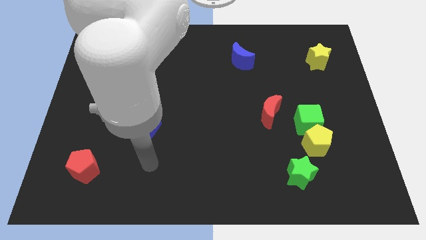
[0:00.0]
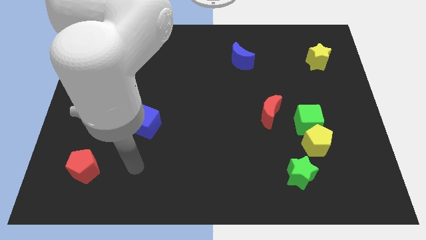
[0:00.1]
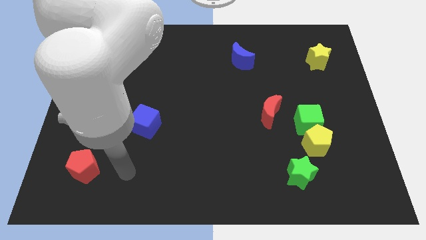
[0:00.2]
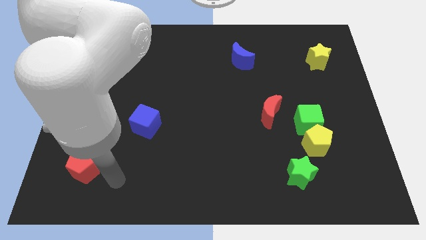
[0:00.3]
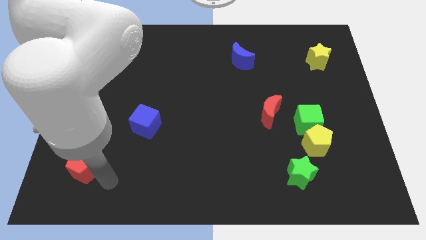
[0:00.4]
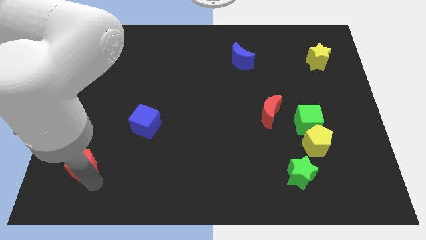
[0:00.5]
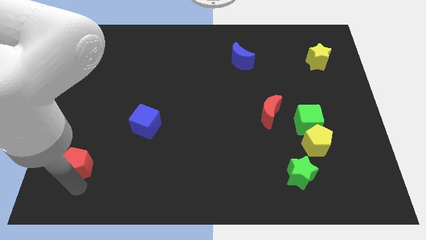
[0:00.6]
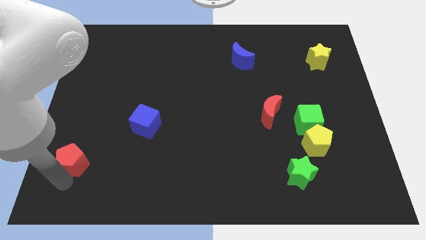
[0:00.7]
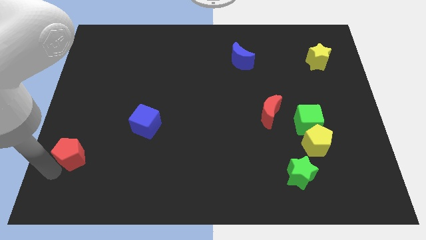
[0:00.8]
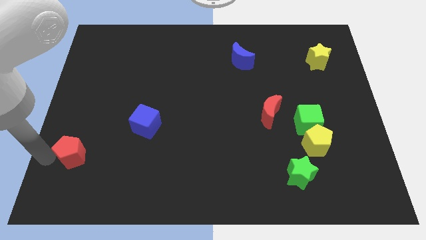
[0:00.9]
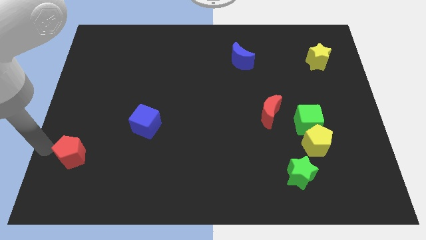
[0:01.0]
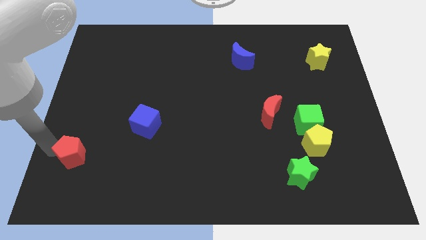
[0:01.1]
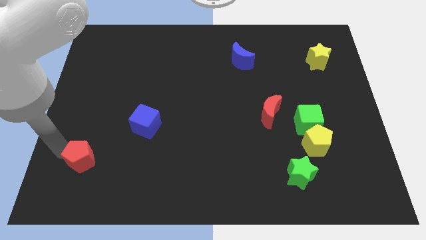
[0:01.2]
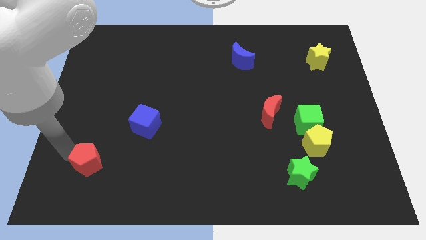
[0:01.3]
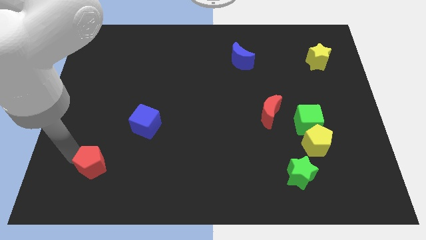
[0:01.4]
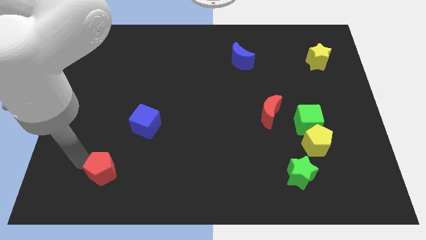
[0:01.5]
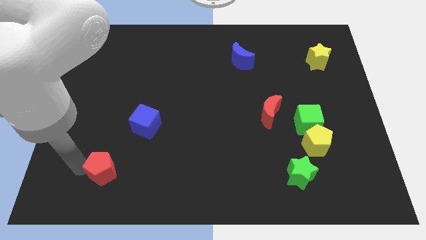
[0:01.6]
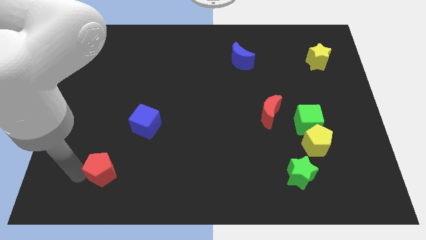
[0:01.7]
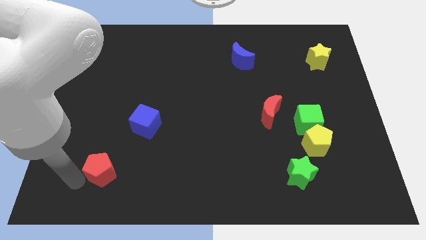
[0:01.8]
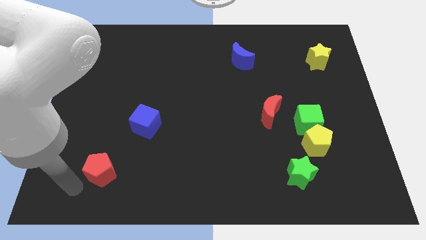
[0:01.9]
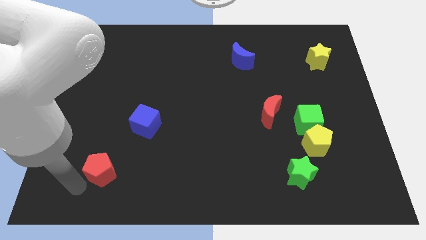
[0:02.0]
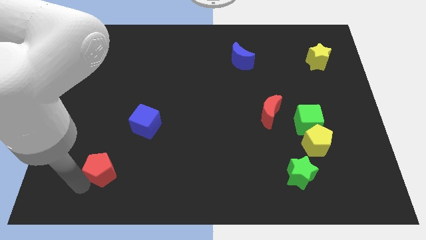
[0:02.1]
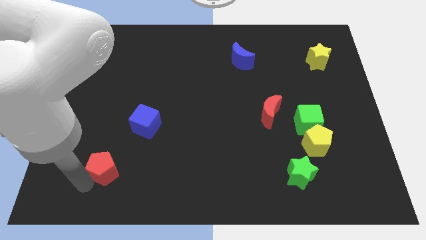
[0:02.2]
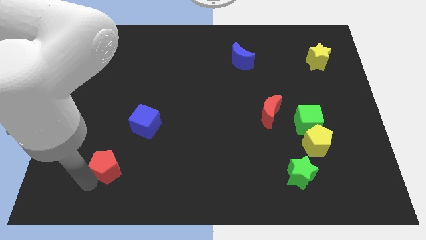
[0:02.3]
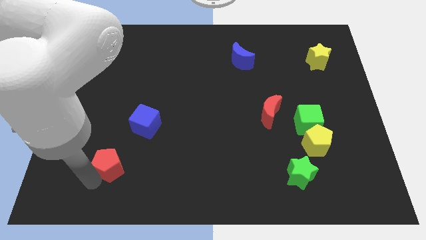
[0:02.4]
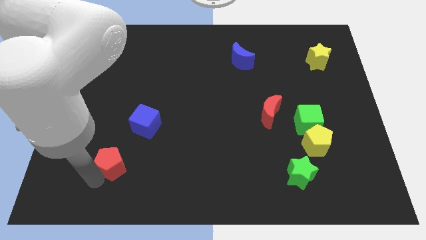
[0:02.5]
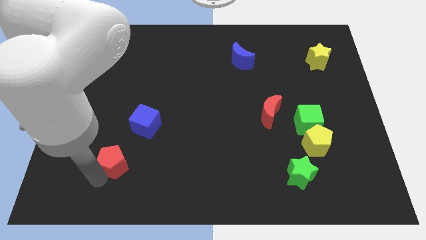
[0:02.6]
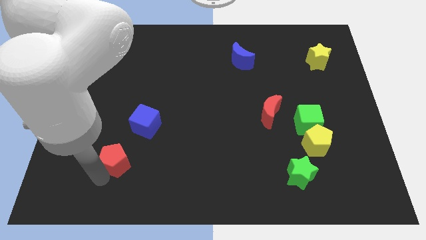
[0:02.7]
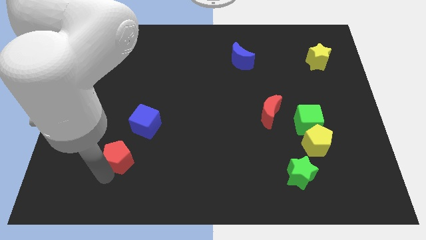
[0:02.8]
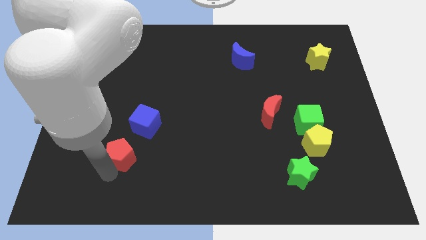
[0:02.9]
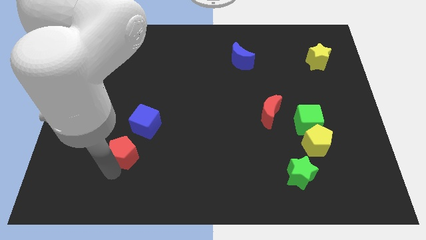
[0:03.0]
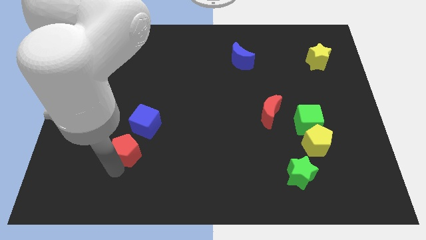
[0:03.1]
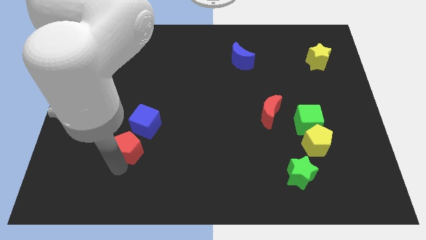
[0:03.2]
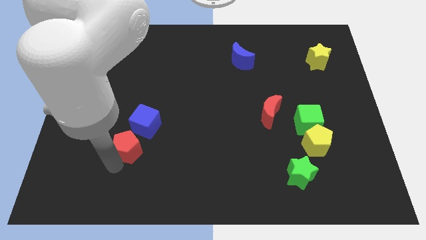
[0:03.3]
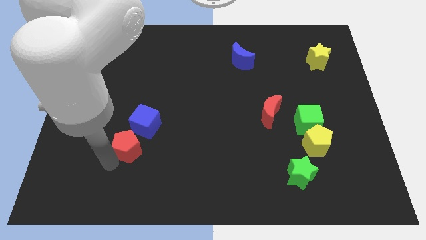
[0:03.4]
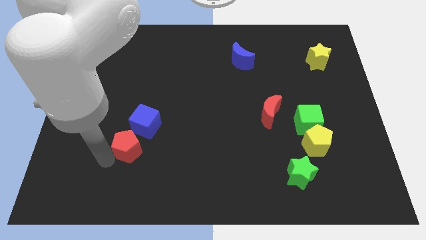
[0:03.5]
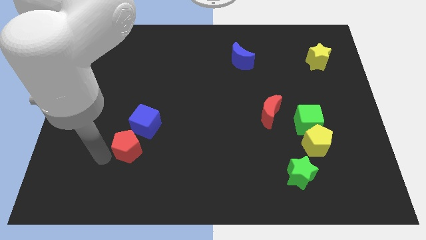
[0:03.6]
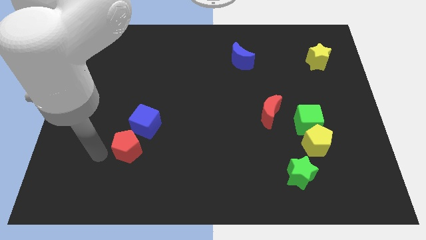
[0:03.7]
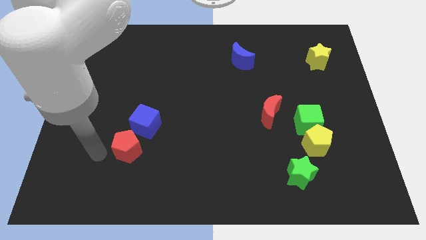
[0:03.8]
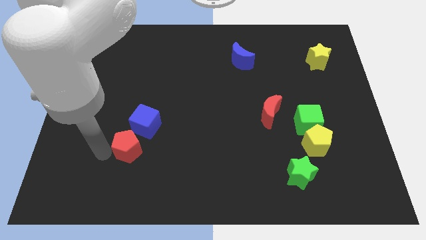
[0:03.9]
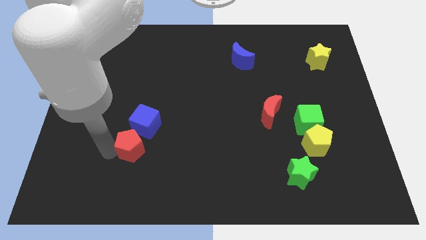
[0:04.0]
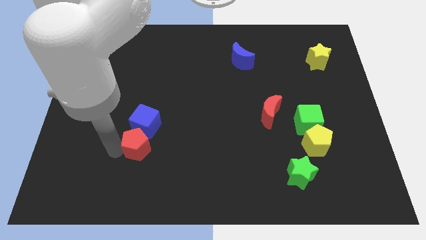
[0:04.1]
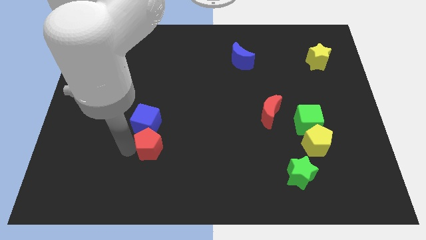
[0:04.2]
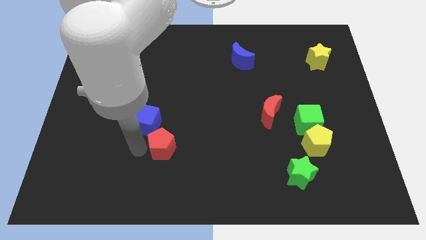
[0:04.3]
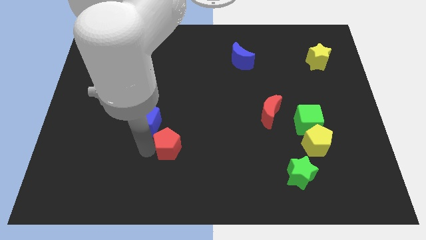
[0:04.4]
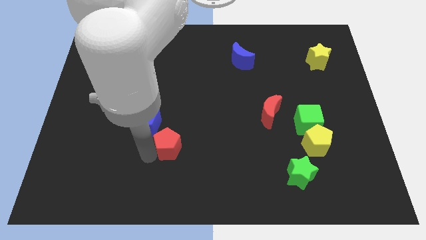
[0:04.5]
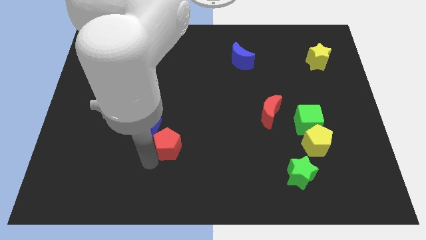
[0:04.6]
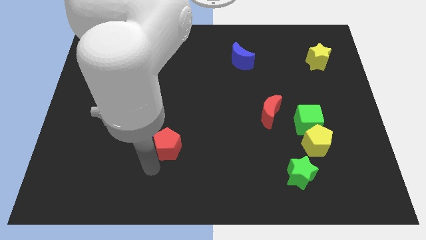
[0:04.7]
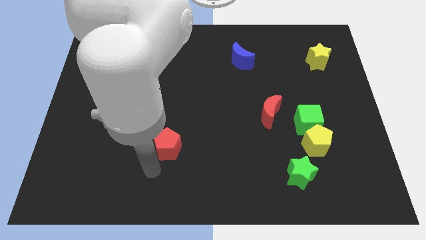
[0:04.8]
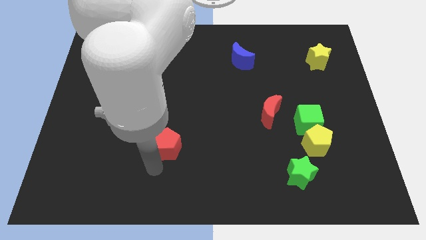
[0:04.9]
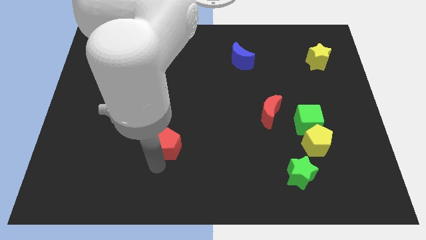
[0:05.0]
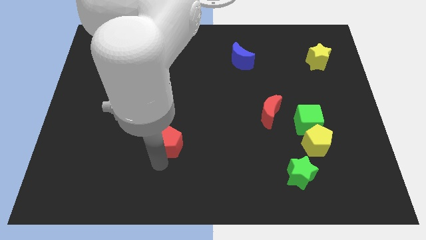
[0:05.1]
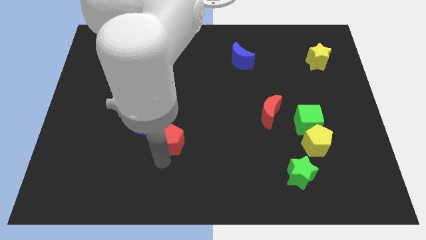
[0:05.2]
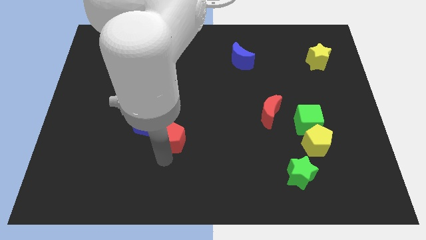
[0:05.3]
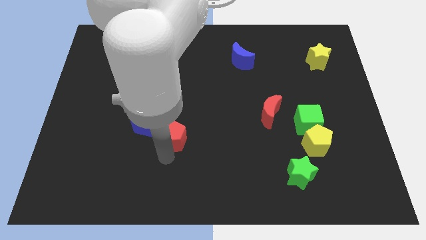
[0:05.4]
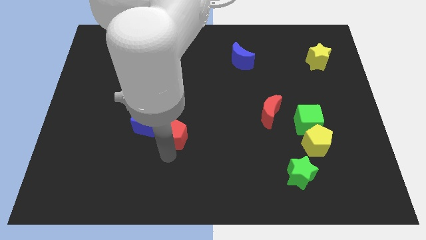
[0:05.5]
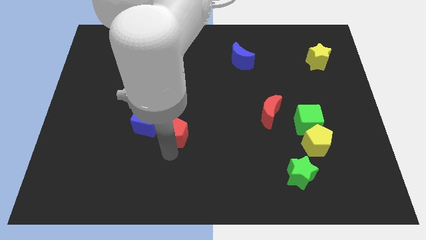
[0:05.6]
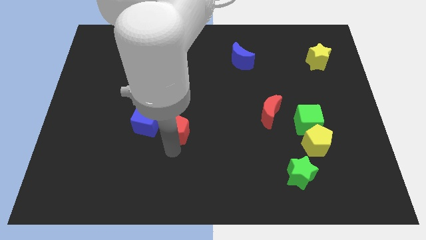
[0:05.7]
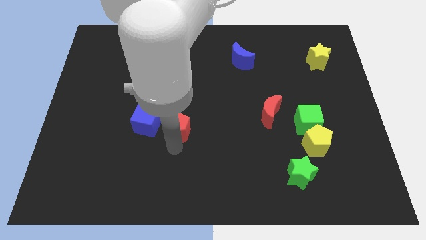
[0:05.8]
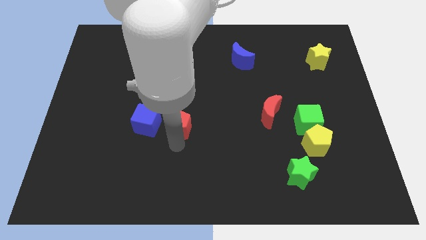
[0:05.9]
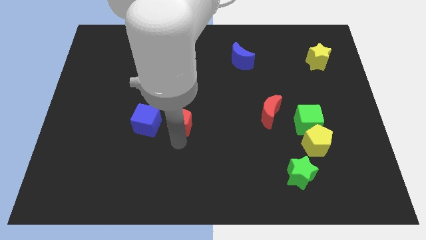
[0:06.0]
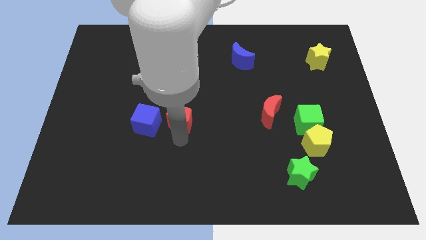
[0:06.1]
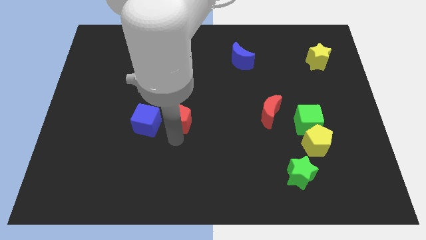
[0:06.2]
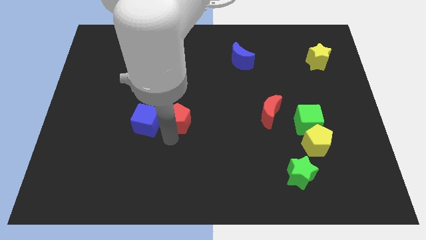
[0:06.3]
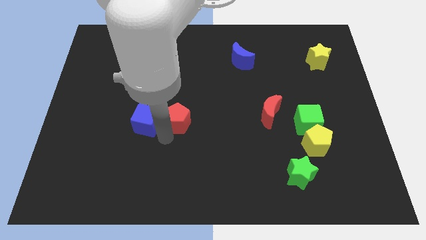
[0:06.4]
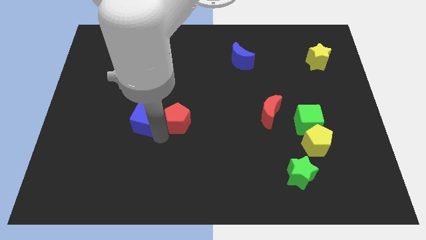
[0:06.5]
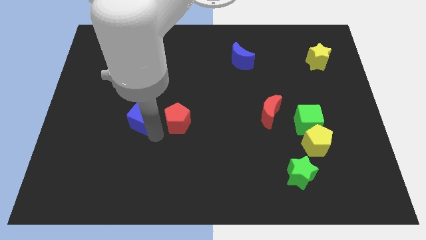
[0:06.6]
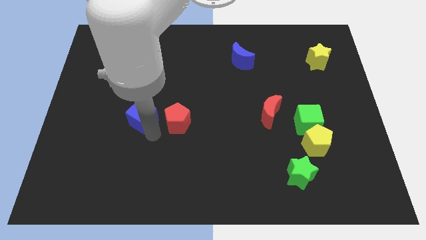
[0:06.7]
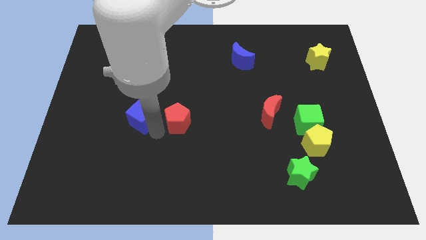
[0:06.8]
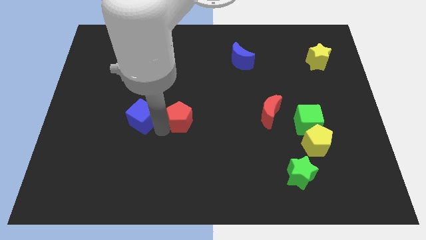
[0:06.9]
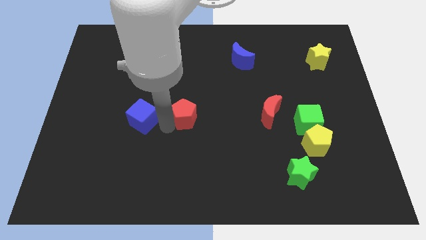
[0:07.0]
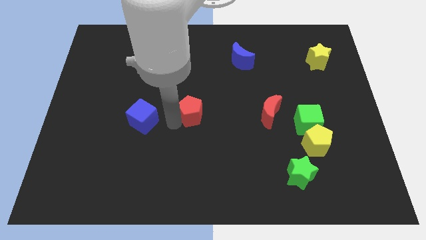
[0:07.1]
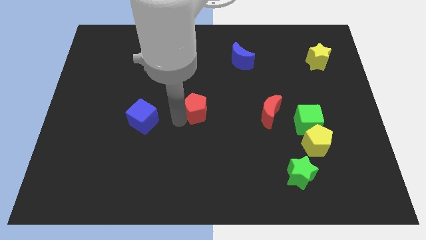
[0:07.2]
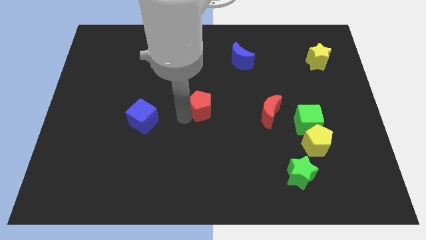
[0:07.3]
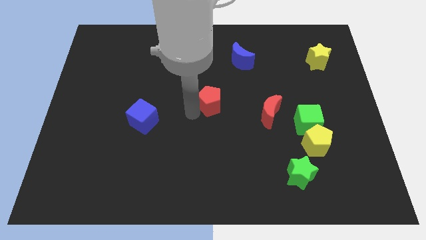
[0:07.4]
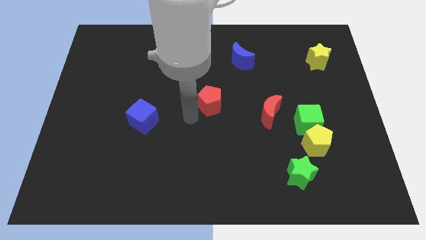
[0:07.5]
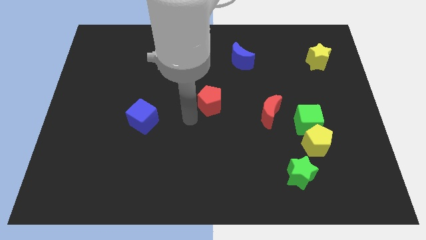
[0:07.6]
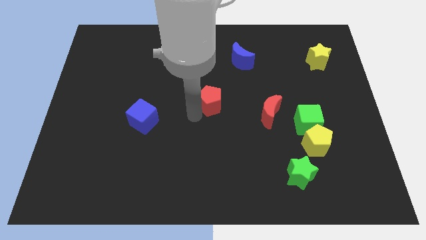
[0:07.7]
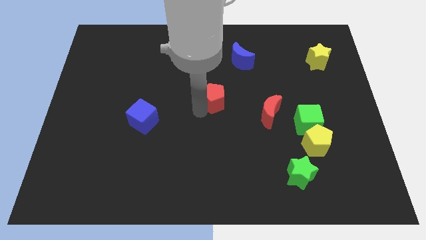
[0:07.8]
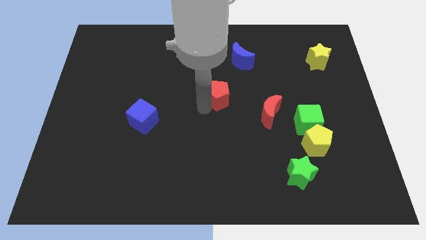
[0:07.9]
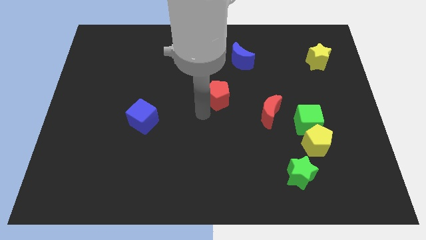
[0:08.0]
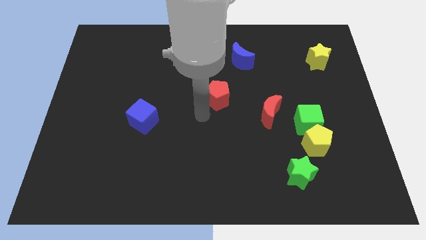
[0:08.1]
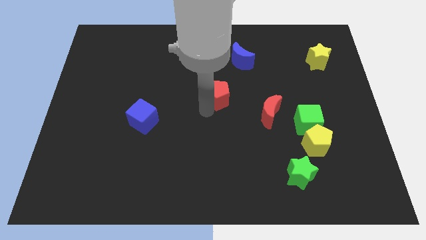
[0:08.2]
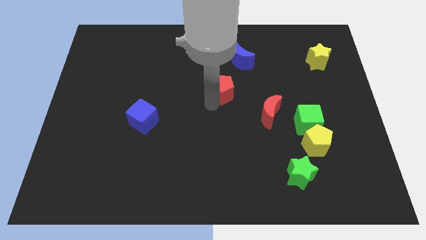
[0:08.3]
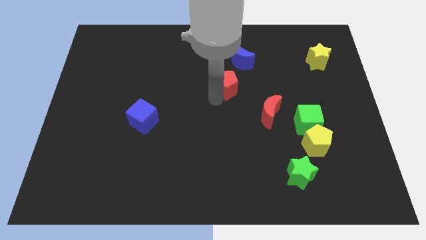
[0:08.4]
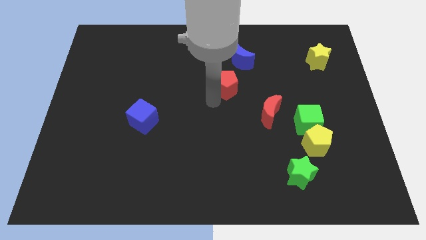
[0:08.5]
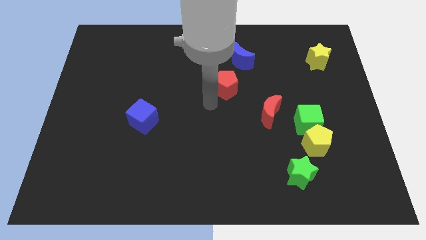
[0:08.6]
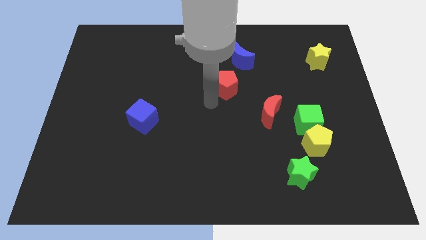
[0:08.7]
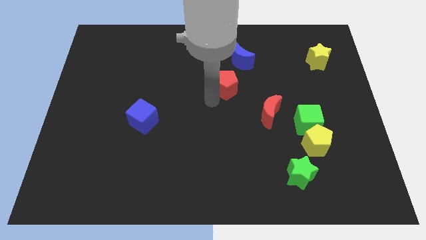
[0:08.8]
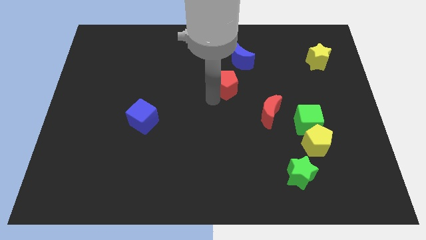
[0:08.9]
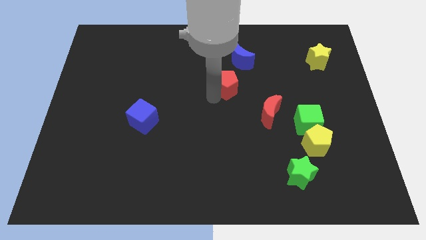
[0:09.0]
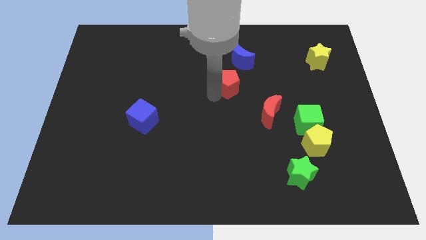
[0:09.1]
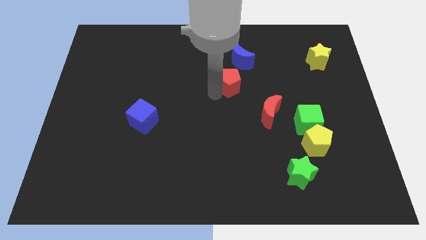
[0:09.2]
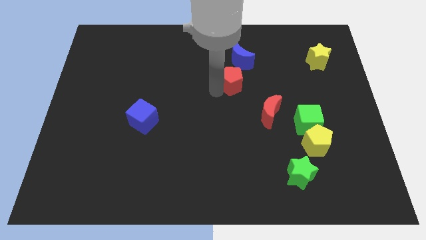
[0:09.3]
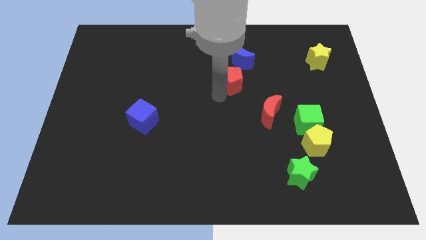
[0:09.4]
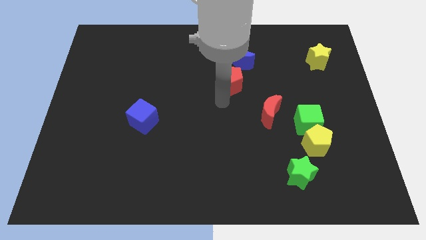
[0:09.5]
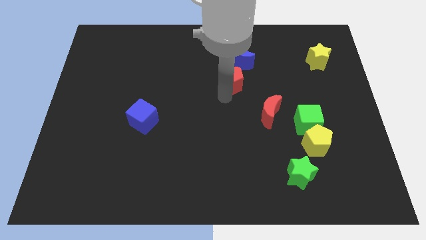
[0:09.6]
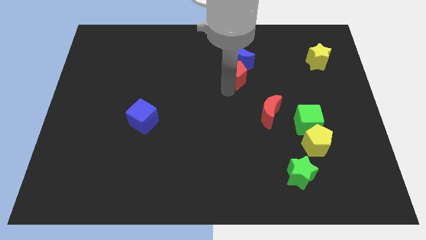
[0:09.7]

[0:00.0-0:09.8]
slide the red pentagon next to the blue moon
